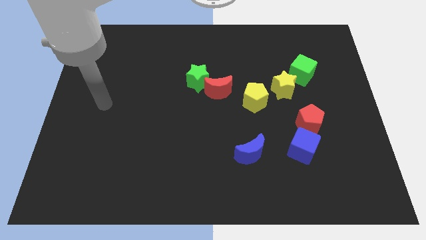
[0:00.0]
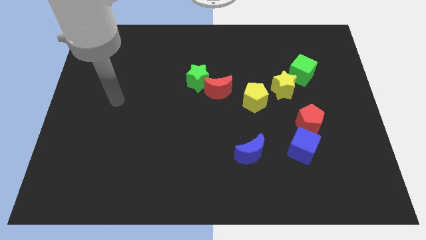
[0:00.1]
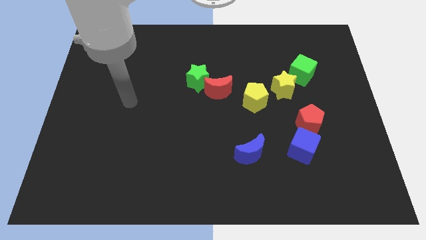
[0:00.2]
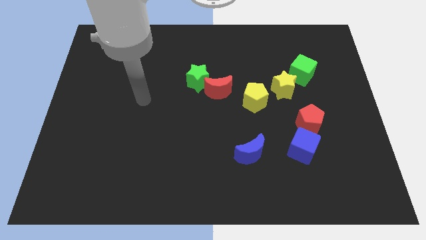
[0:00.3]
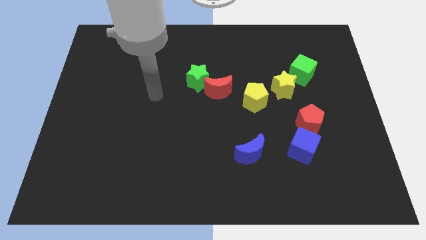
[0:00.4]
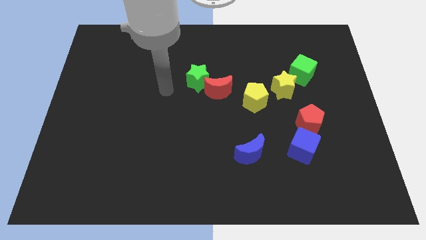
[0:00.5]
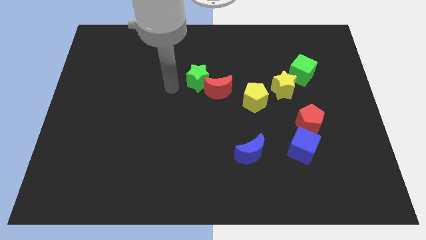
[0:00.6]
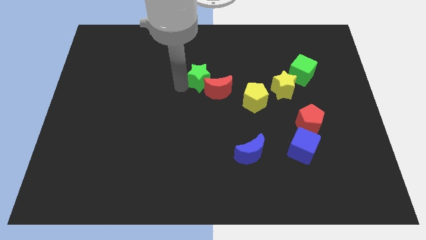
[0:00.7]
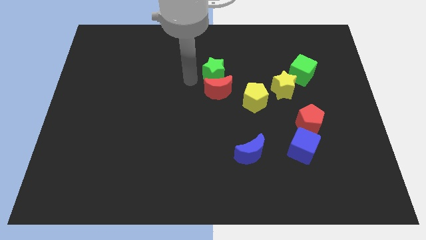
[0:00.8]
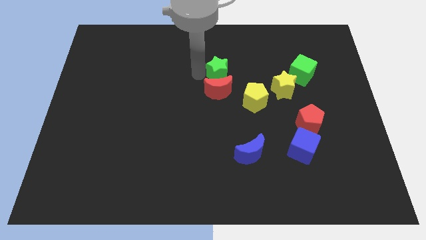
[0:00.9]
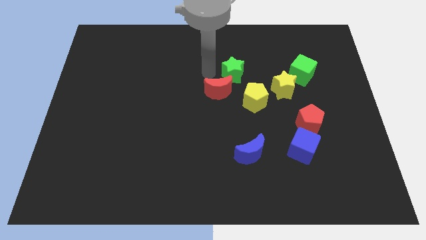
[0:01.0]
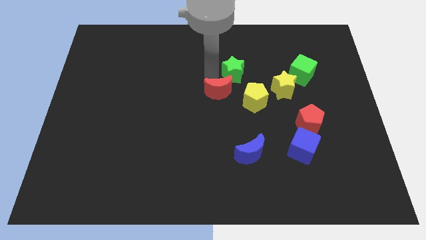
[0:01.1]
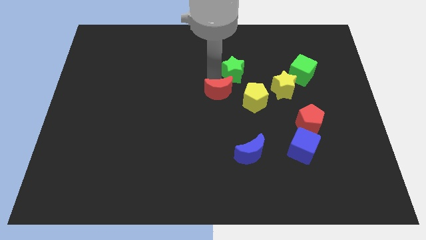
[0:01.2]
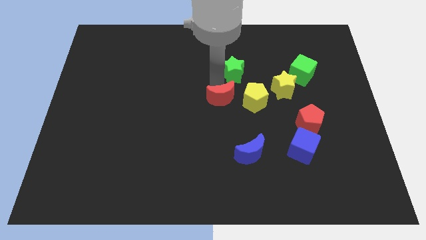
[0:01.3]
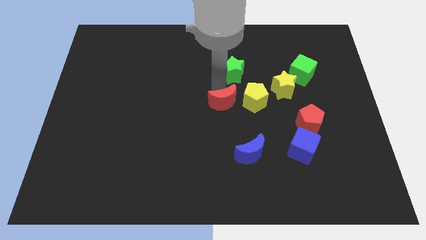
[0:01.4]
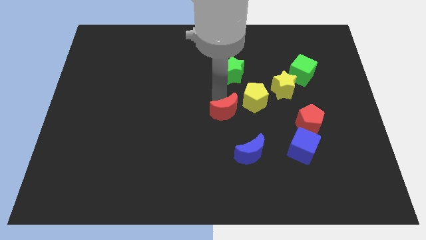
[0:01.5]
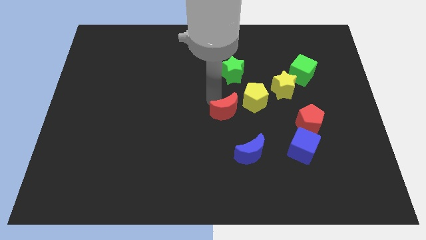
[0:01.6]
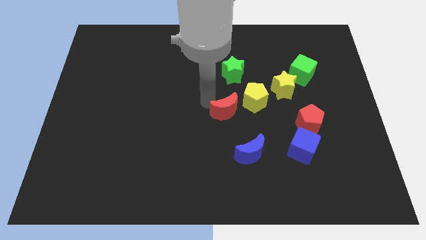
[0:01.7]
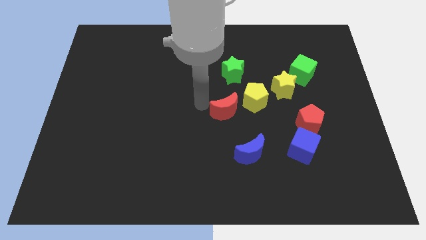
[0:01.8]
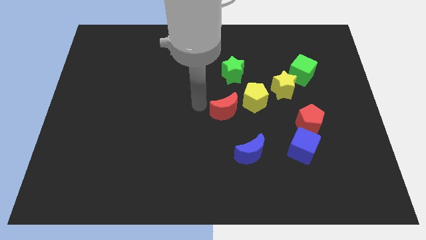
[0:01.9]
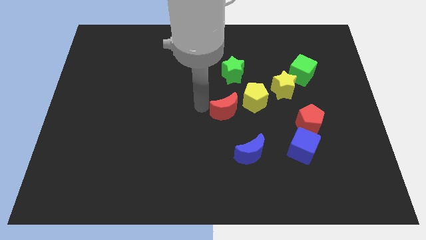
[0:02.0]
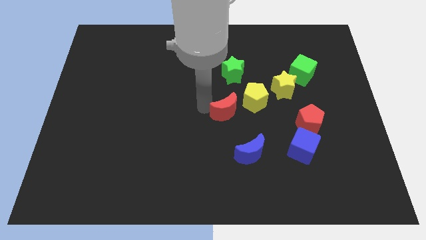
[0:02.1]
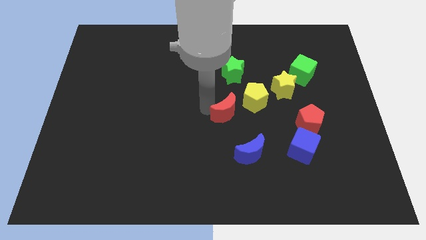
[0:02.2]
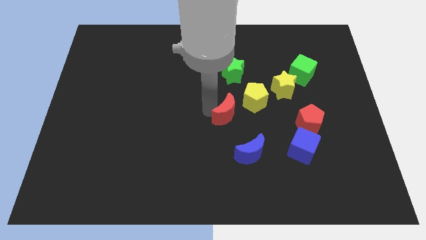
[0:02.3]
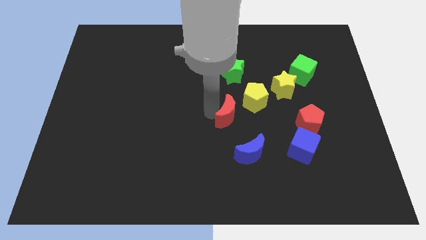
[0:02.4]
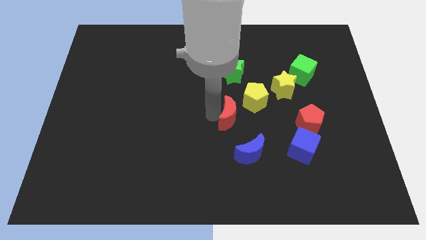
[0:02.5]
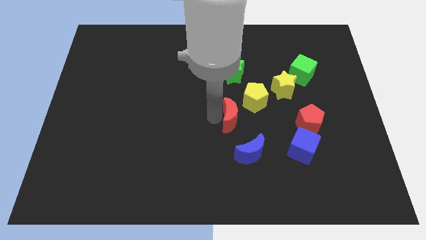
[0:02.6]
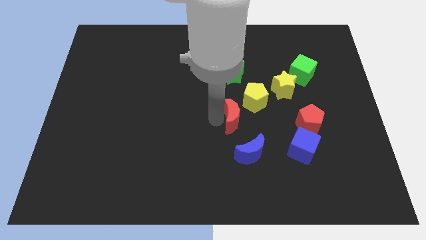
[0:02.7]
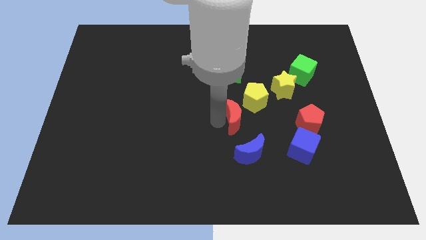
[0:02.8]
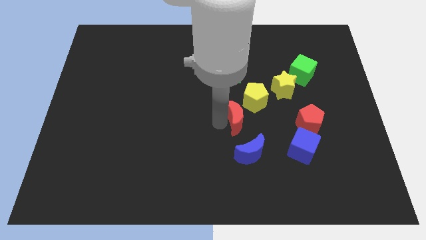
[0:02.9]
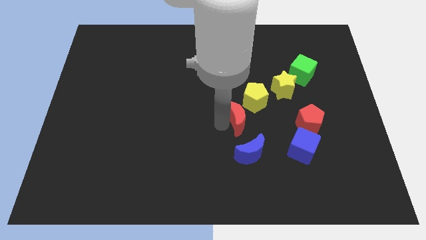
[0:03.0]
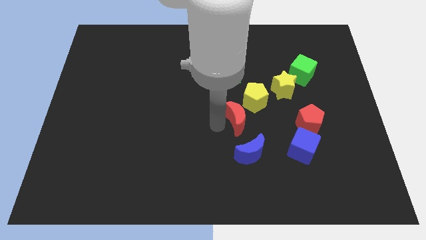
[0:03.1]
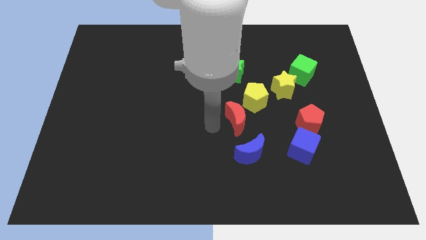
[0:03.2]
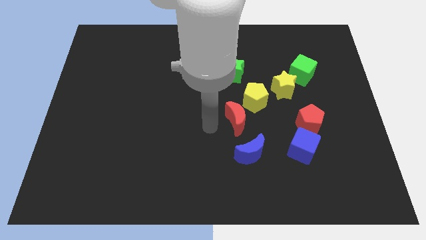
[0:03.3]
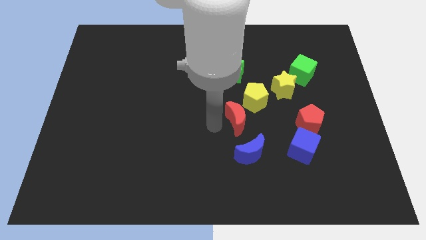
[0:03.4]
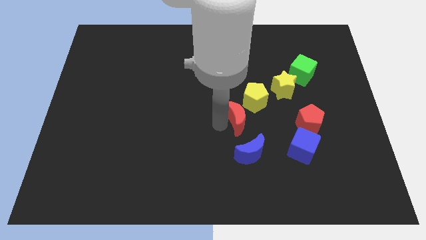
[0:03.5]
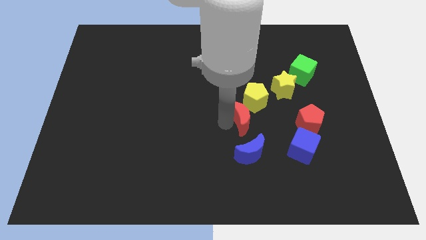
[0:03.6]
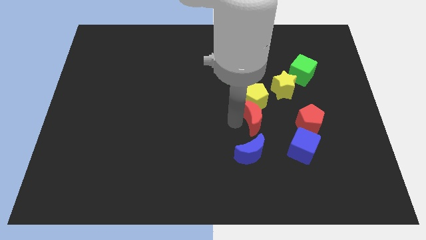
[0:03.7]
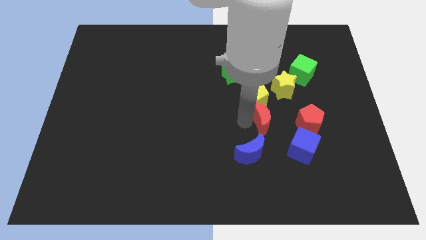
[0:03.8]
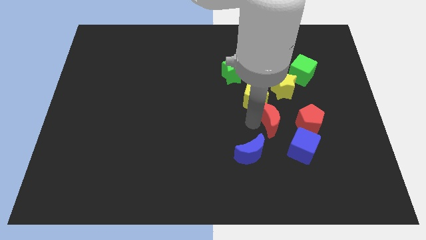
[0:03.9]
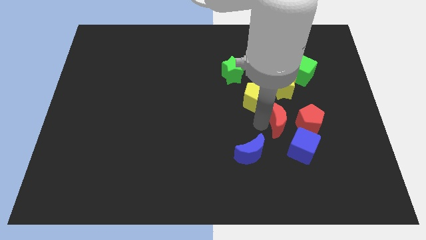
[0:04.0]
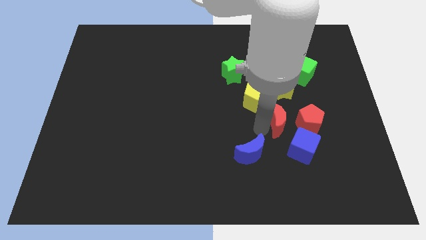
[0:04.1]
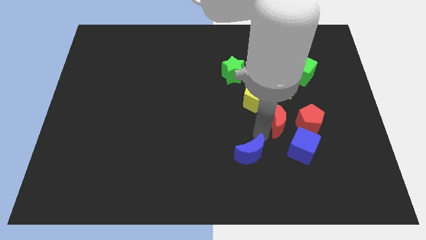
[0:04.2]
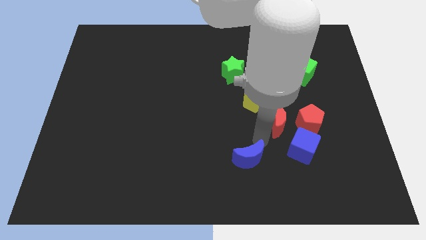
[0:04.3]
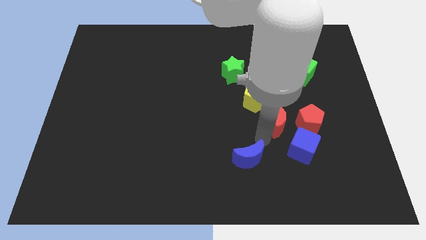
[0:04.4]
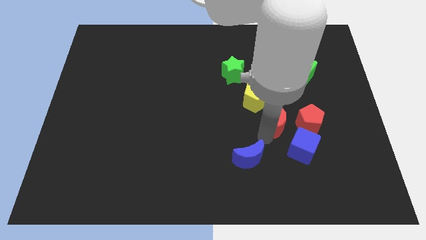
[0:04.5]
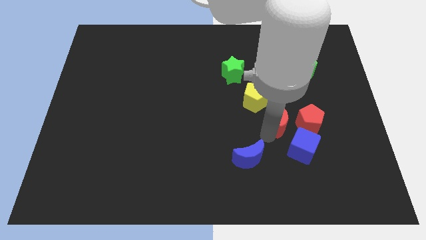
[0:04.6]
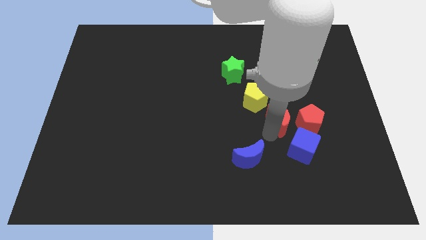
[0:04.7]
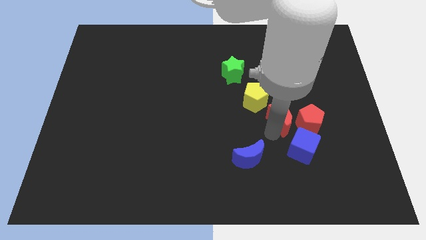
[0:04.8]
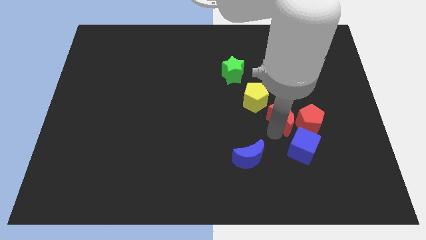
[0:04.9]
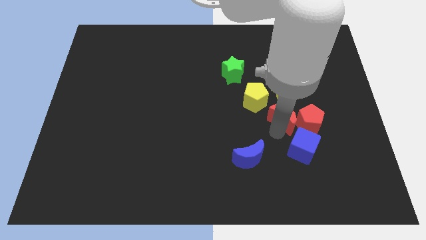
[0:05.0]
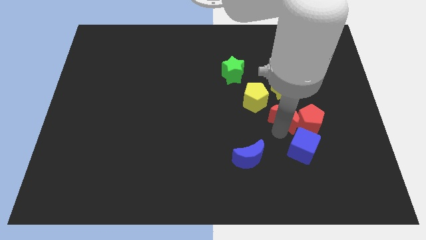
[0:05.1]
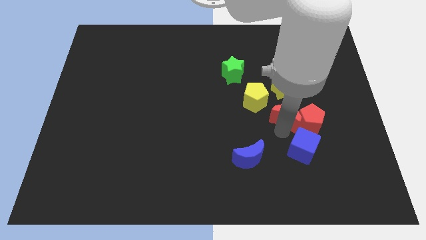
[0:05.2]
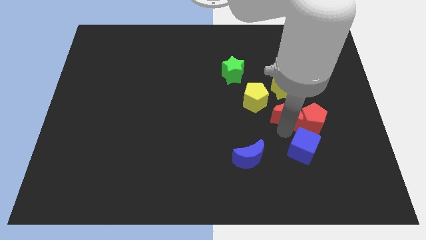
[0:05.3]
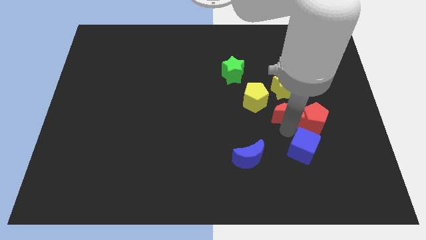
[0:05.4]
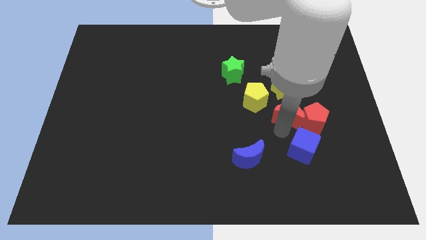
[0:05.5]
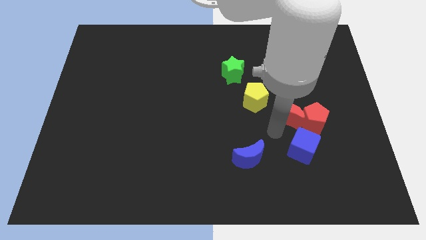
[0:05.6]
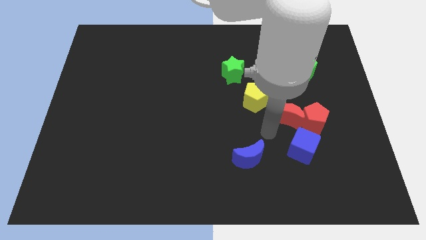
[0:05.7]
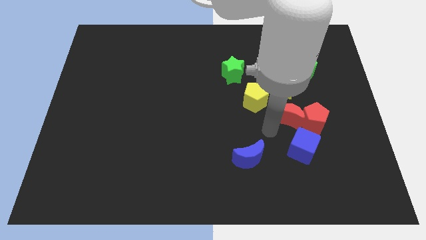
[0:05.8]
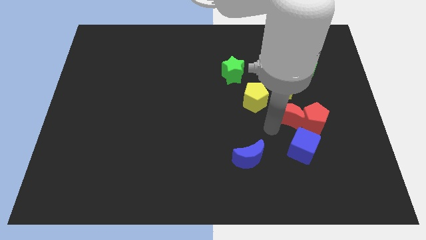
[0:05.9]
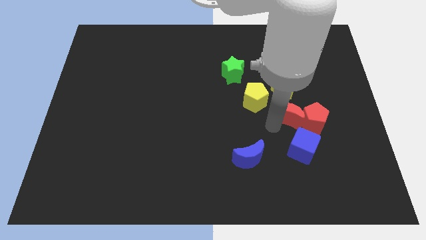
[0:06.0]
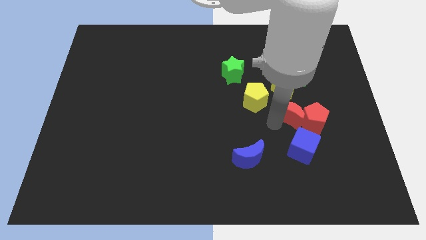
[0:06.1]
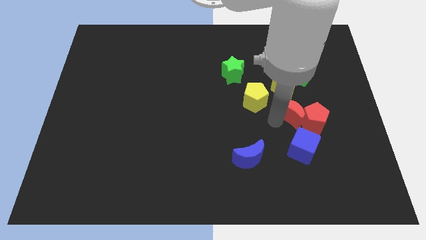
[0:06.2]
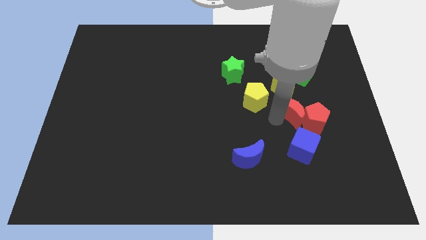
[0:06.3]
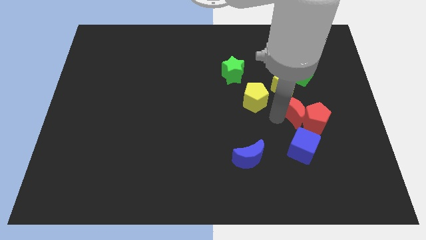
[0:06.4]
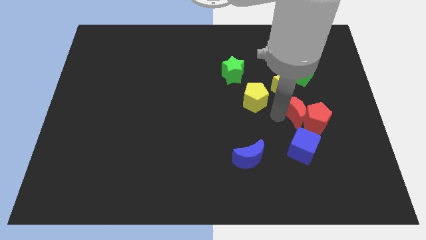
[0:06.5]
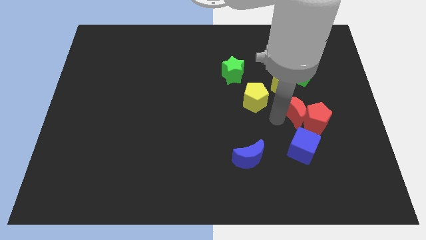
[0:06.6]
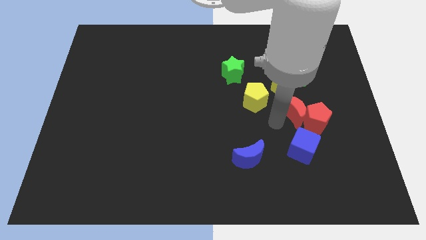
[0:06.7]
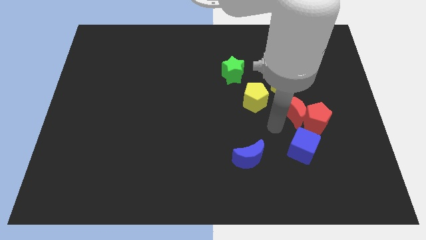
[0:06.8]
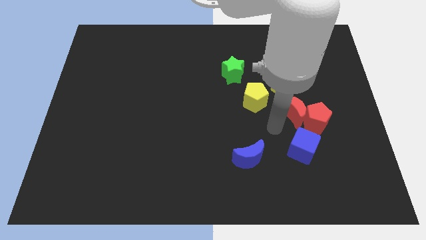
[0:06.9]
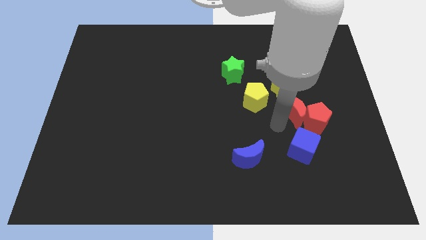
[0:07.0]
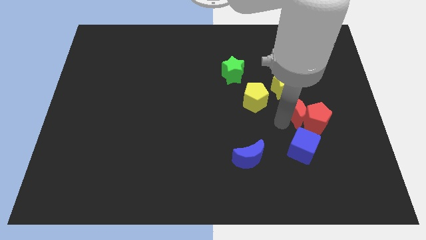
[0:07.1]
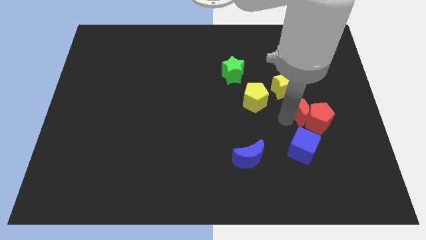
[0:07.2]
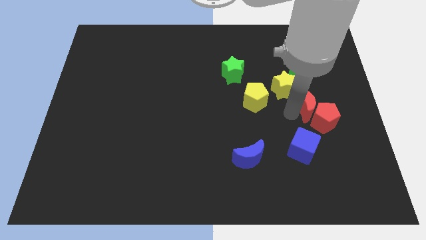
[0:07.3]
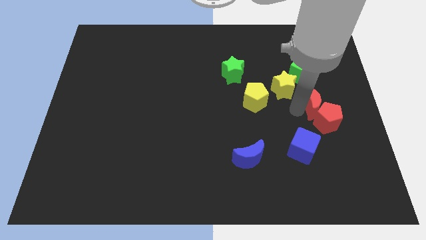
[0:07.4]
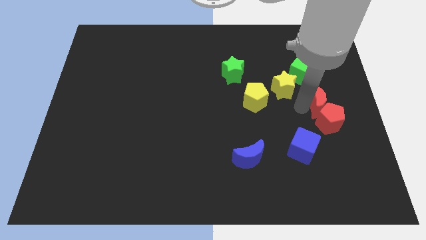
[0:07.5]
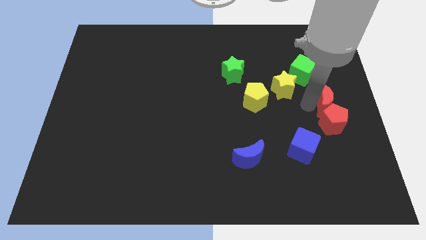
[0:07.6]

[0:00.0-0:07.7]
slide the red moon to the right side of the board
